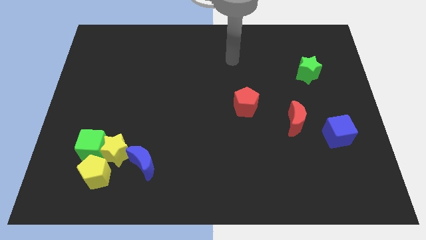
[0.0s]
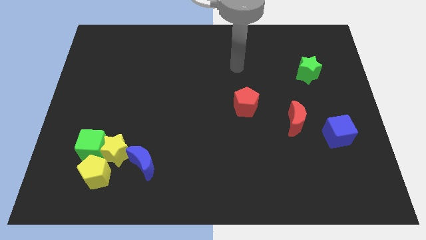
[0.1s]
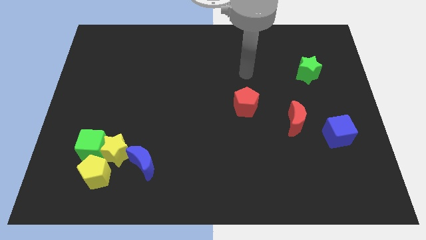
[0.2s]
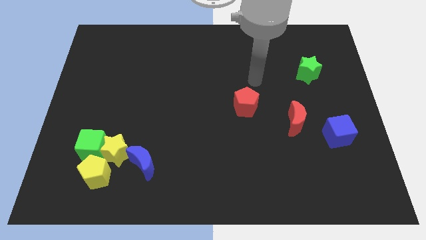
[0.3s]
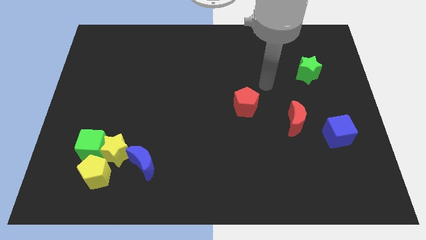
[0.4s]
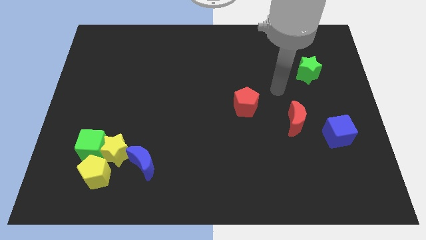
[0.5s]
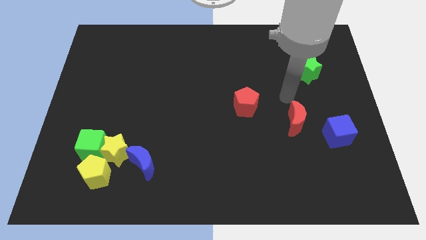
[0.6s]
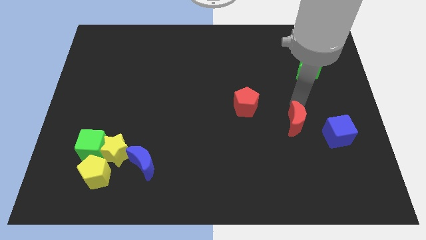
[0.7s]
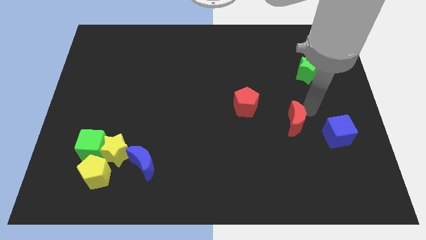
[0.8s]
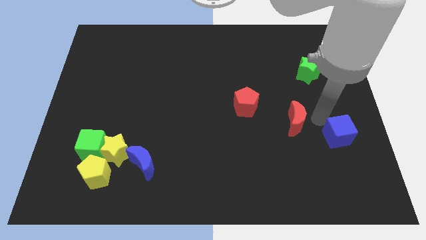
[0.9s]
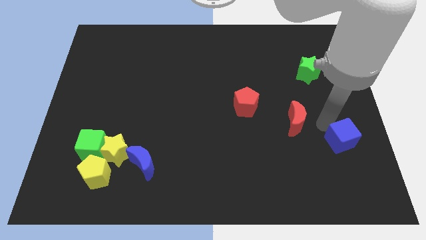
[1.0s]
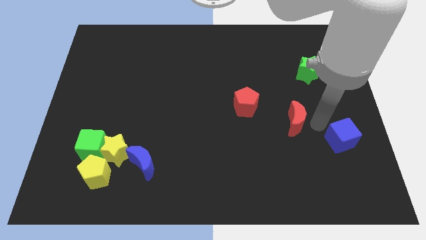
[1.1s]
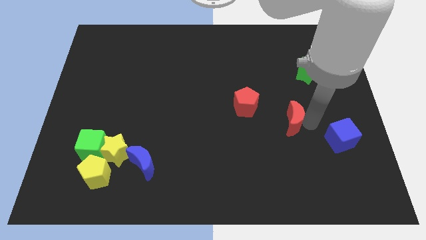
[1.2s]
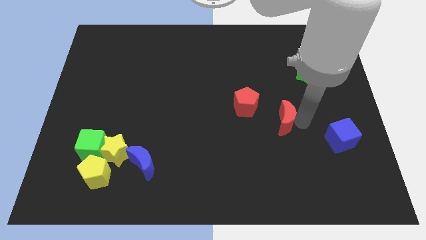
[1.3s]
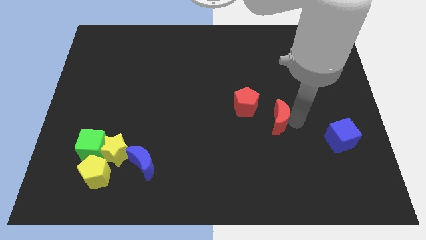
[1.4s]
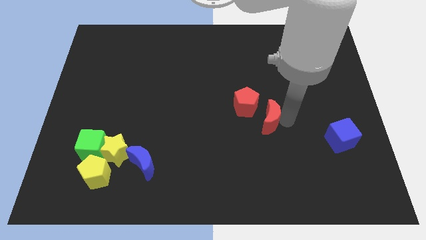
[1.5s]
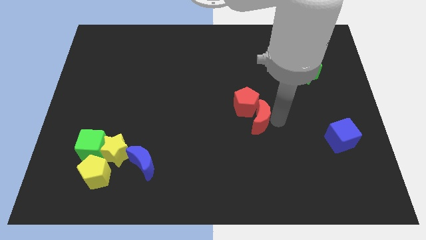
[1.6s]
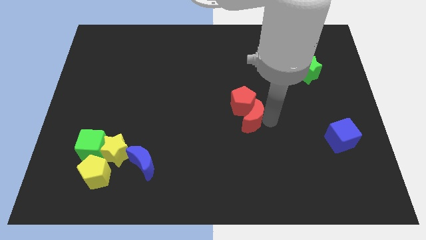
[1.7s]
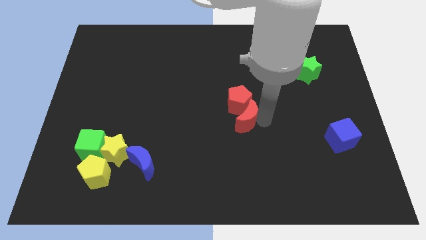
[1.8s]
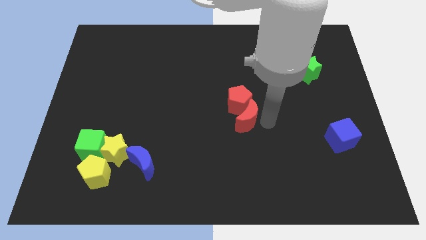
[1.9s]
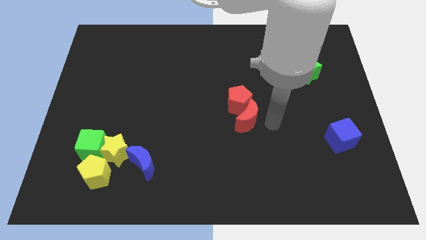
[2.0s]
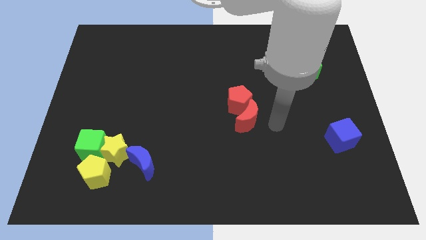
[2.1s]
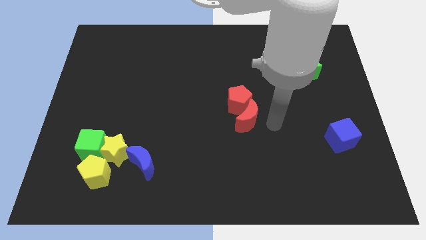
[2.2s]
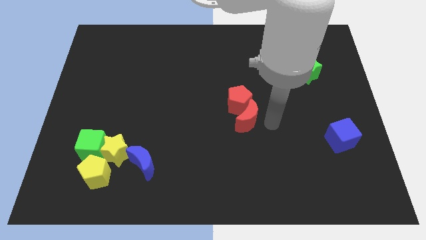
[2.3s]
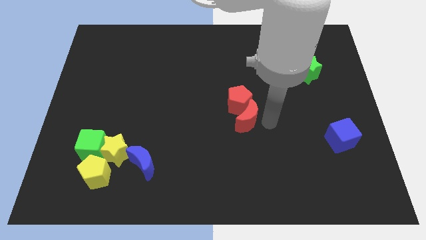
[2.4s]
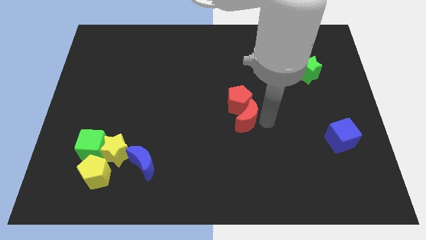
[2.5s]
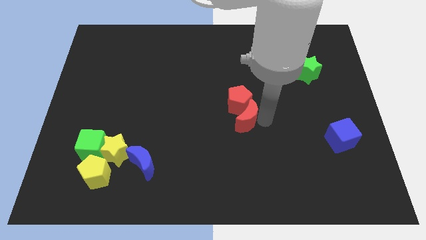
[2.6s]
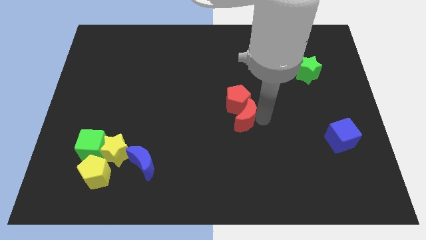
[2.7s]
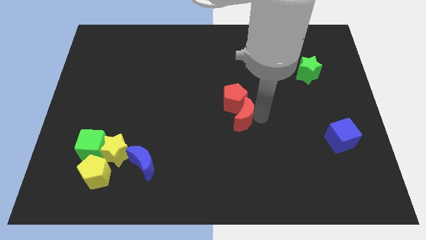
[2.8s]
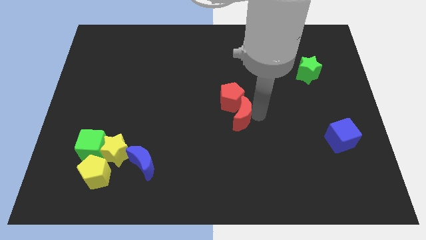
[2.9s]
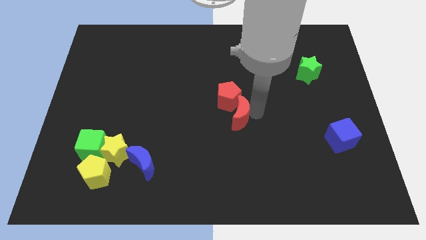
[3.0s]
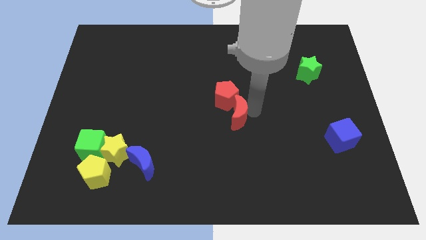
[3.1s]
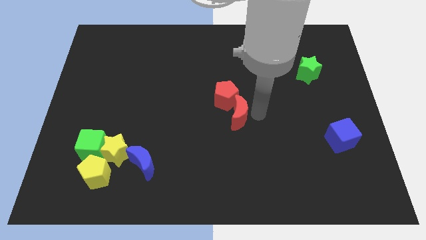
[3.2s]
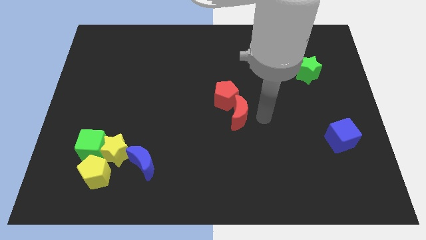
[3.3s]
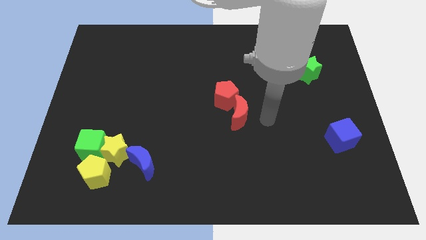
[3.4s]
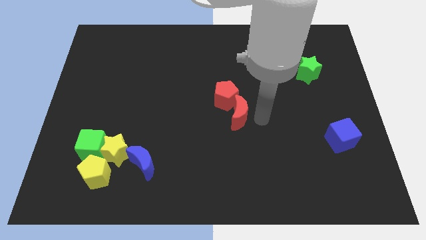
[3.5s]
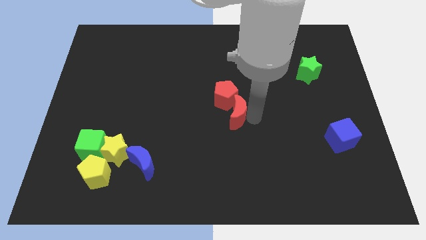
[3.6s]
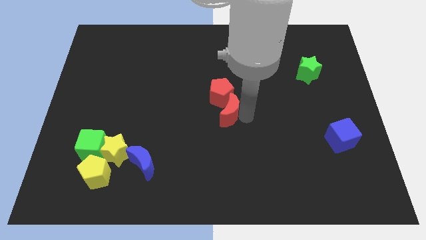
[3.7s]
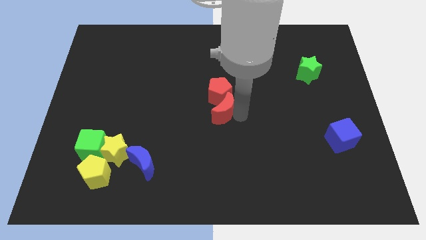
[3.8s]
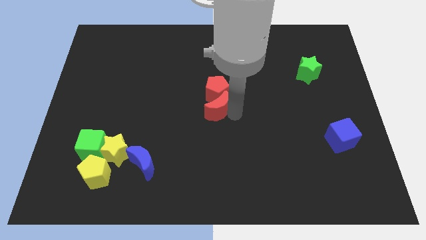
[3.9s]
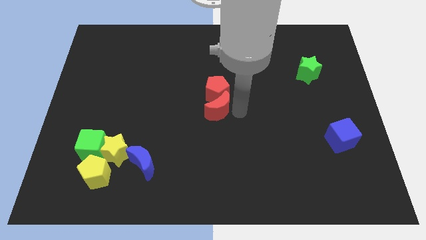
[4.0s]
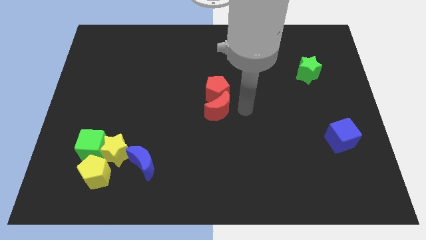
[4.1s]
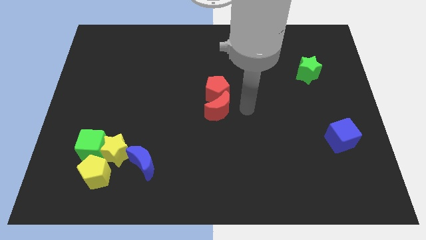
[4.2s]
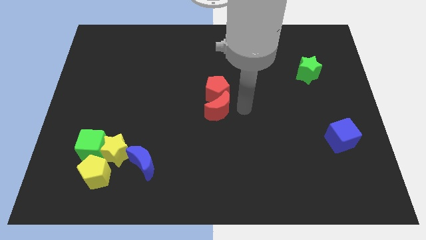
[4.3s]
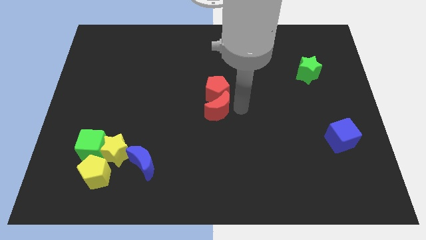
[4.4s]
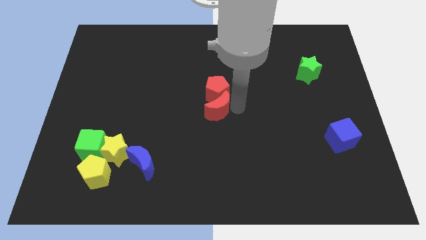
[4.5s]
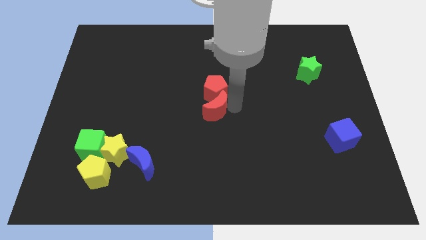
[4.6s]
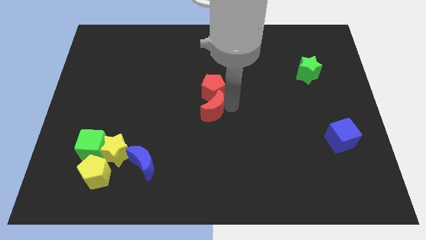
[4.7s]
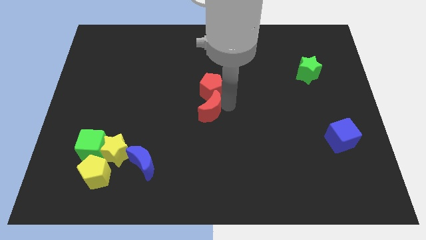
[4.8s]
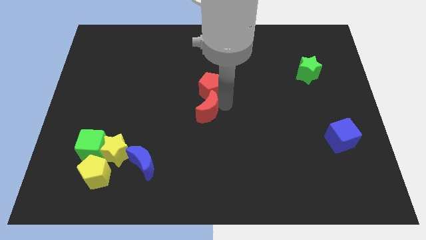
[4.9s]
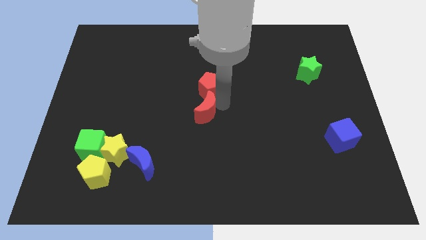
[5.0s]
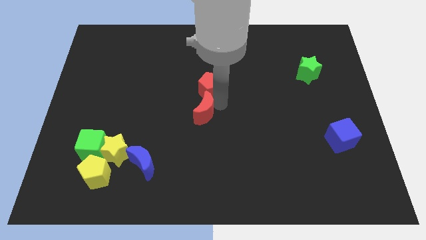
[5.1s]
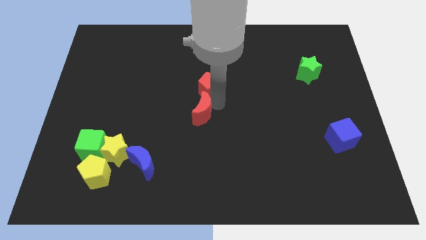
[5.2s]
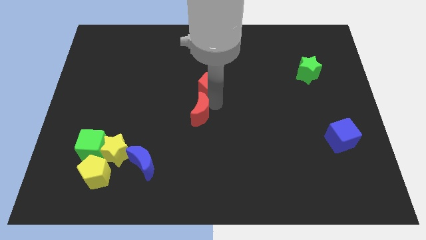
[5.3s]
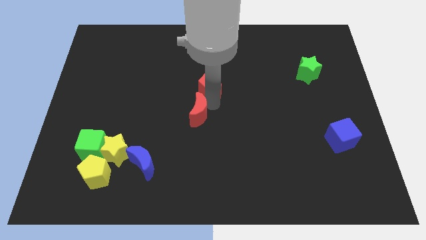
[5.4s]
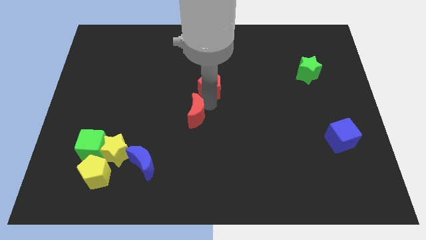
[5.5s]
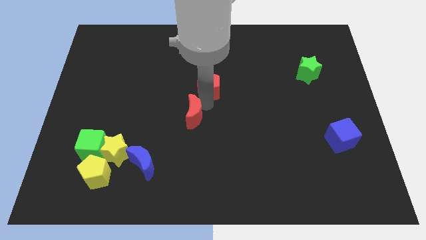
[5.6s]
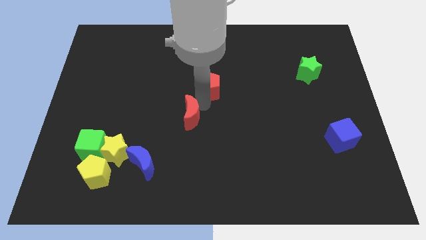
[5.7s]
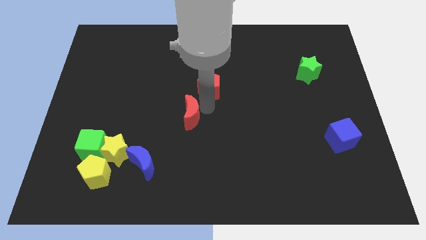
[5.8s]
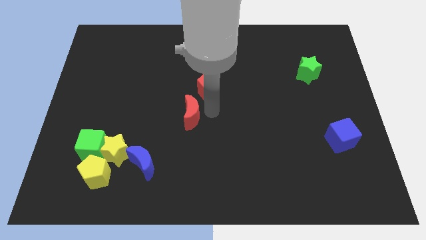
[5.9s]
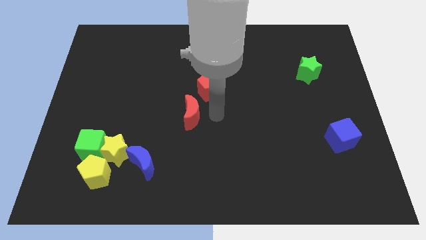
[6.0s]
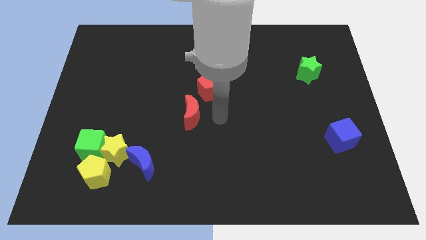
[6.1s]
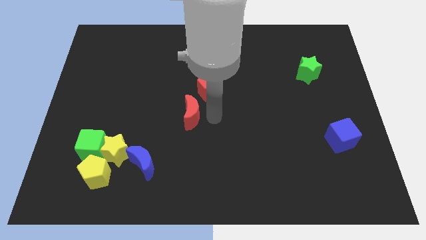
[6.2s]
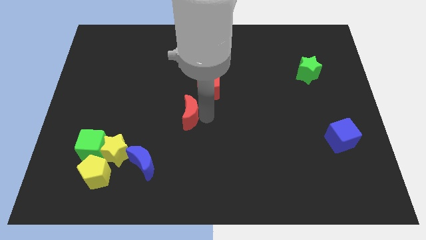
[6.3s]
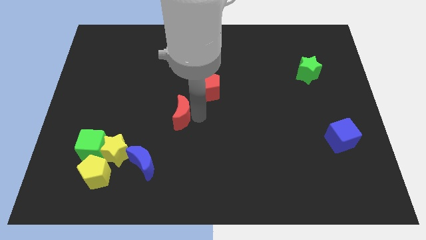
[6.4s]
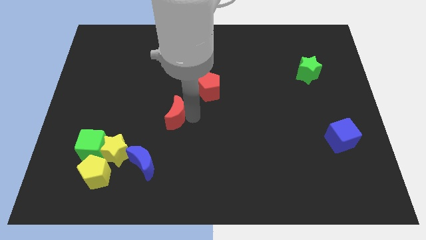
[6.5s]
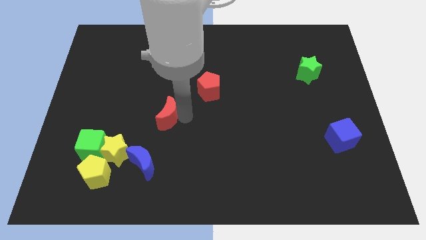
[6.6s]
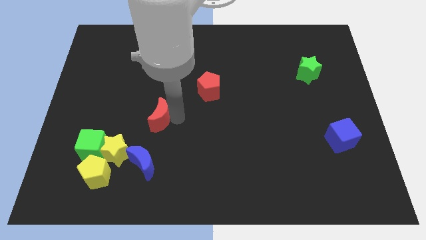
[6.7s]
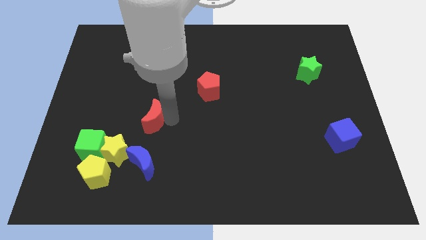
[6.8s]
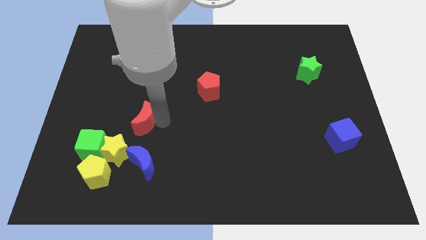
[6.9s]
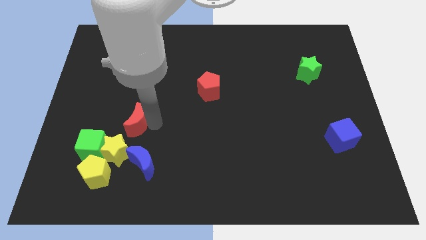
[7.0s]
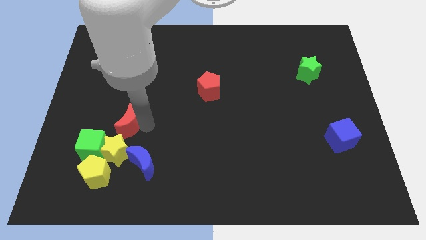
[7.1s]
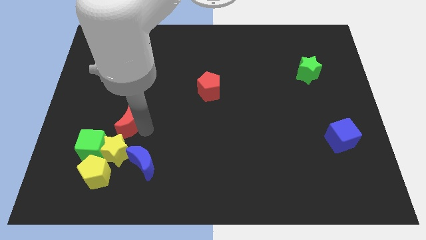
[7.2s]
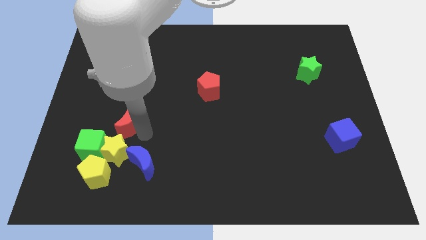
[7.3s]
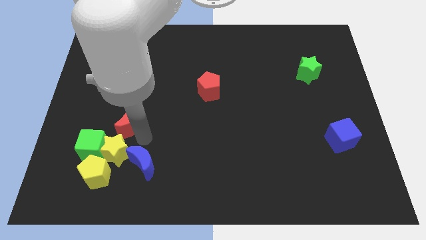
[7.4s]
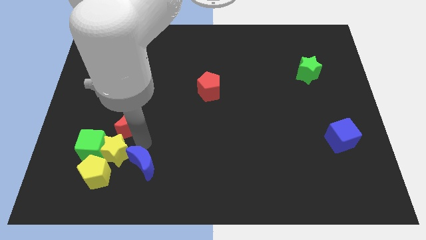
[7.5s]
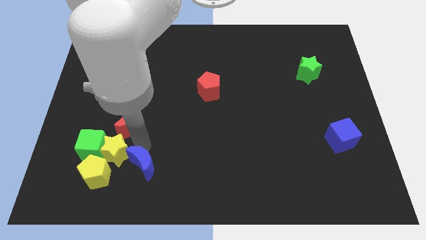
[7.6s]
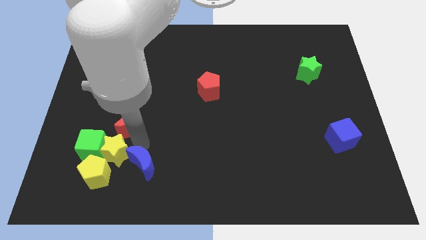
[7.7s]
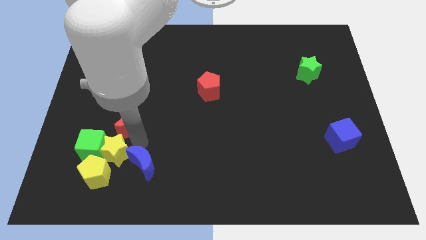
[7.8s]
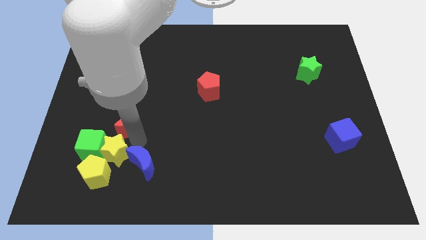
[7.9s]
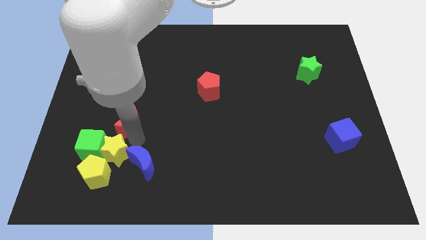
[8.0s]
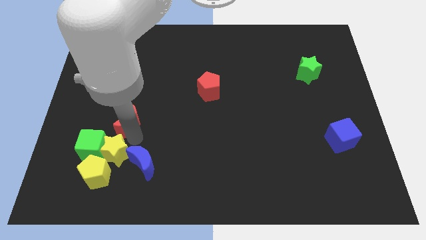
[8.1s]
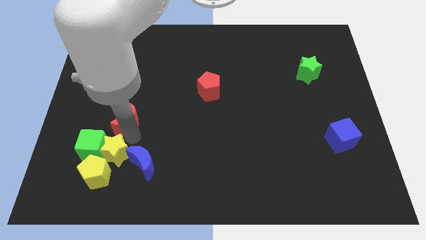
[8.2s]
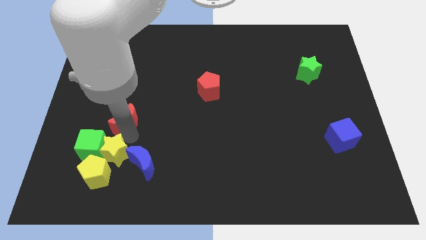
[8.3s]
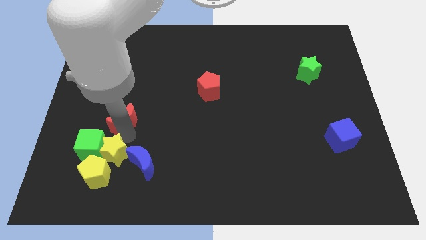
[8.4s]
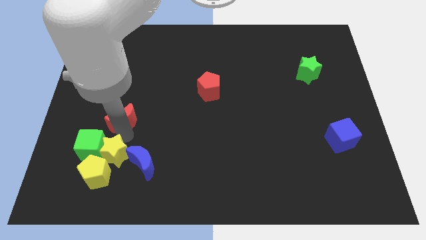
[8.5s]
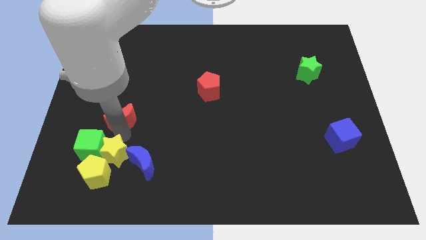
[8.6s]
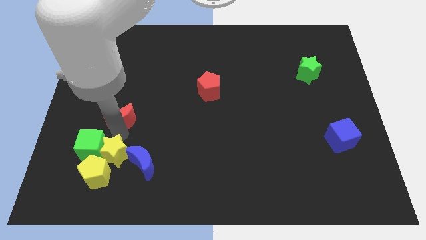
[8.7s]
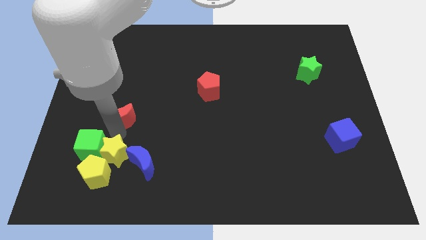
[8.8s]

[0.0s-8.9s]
put the red moon to the top of the green cube
